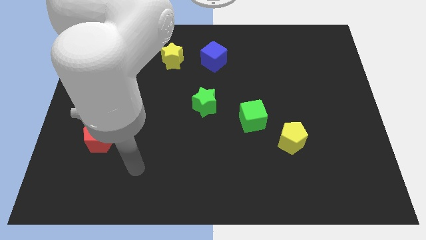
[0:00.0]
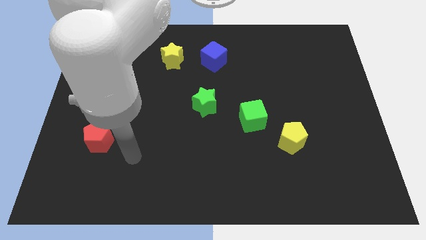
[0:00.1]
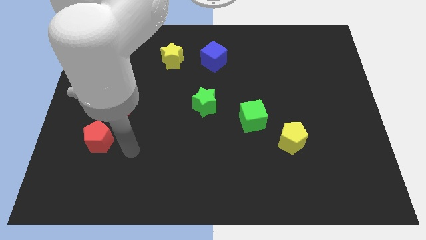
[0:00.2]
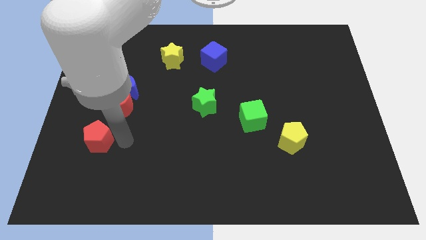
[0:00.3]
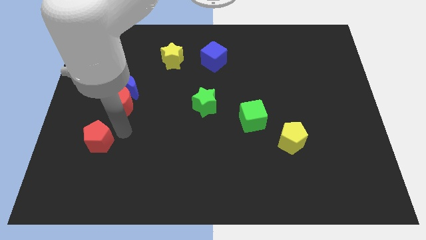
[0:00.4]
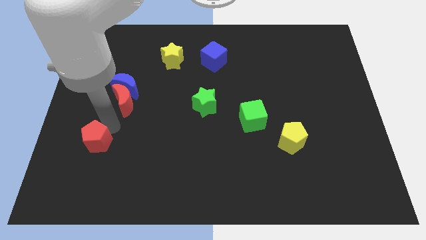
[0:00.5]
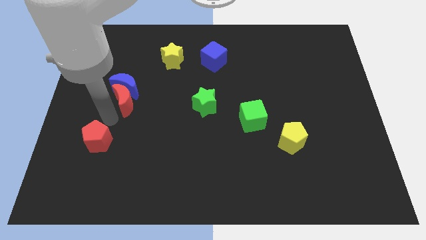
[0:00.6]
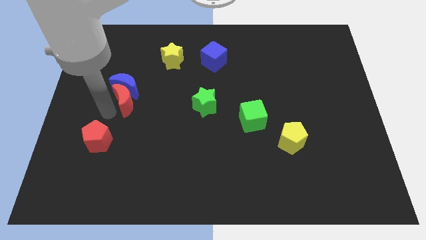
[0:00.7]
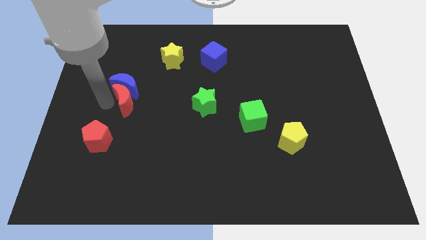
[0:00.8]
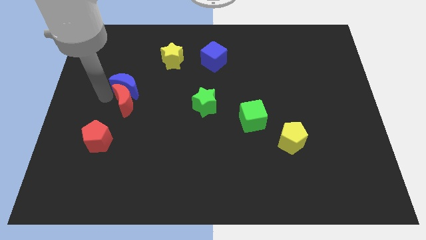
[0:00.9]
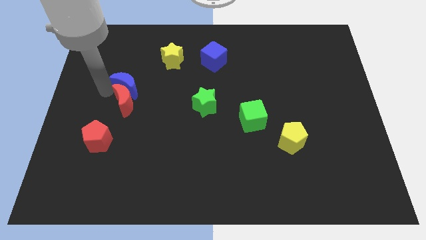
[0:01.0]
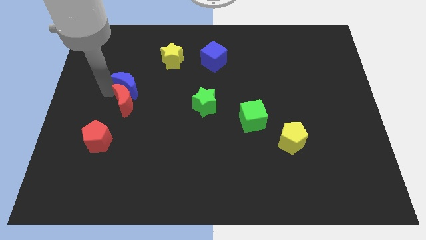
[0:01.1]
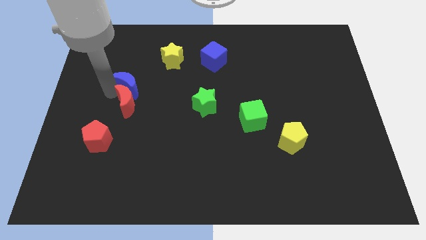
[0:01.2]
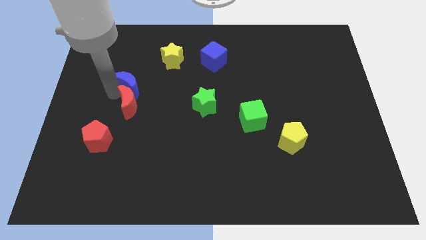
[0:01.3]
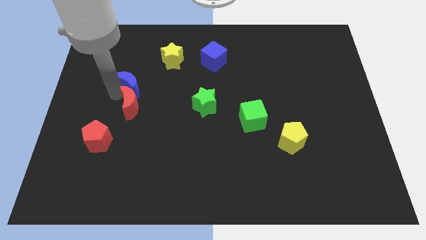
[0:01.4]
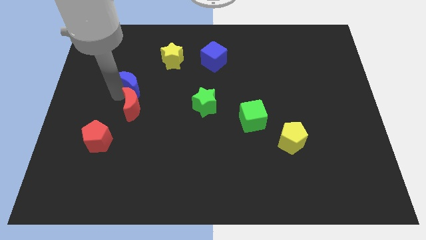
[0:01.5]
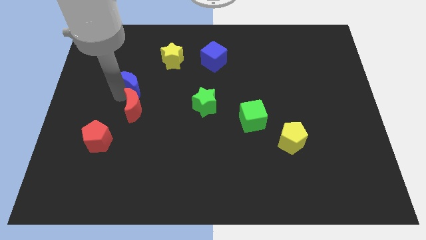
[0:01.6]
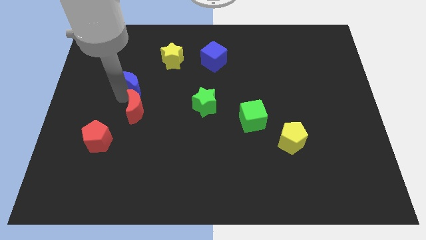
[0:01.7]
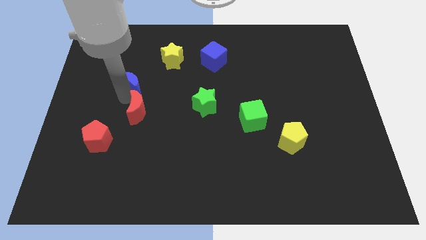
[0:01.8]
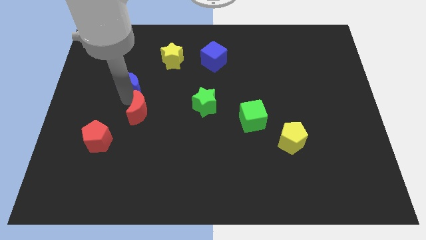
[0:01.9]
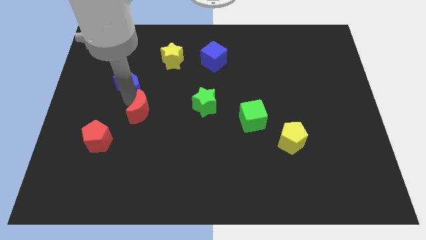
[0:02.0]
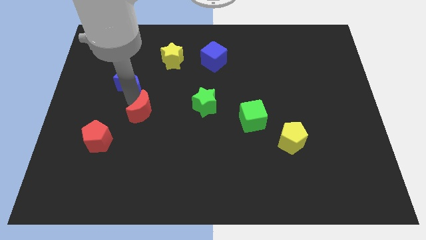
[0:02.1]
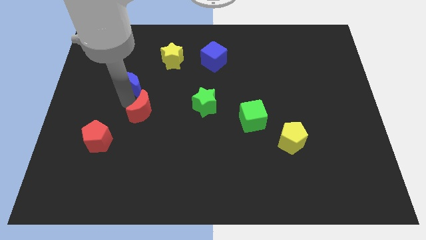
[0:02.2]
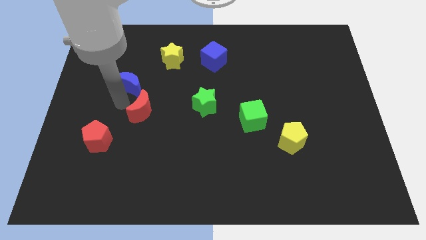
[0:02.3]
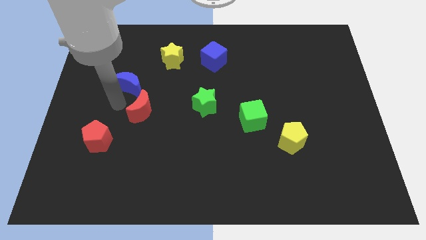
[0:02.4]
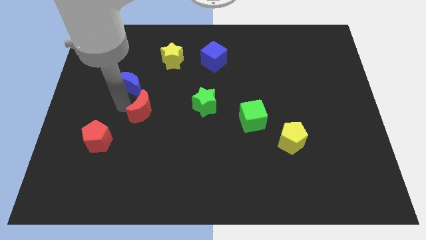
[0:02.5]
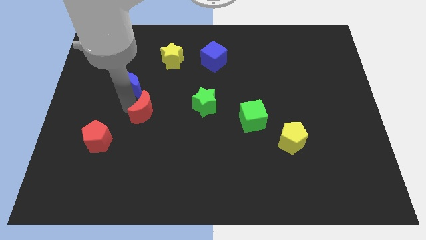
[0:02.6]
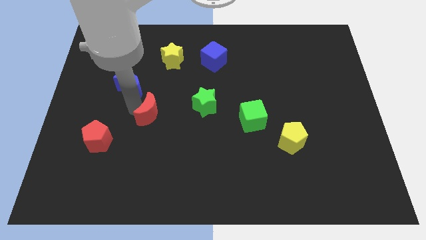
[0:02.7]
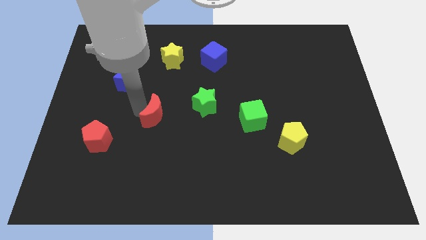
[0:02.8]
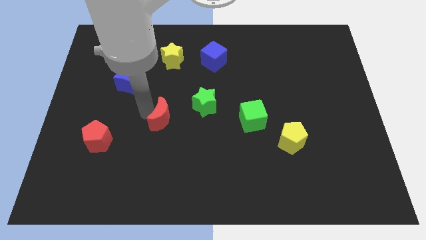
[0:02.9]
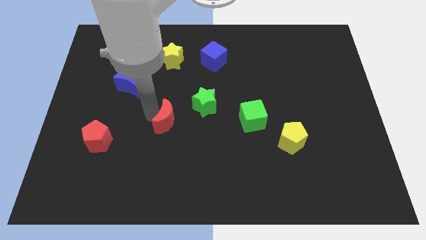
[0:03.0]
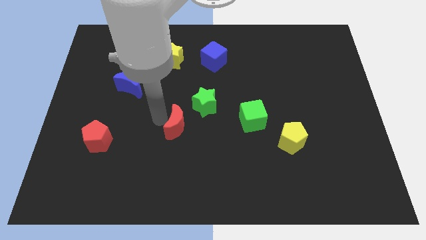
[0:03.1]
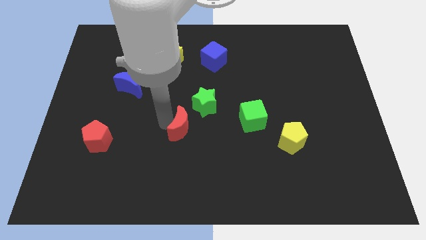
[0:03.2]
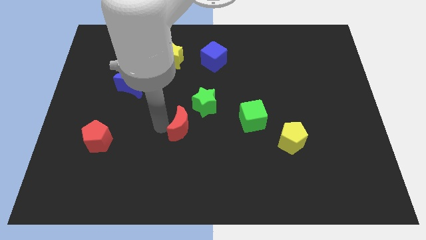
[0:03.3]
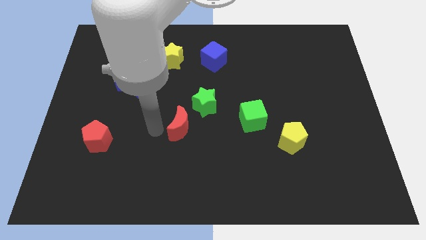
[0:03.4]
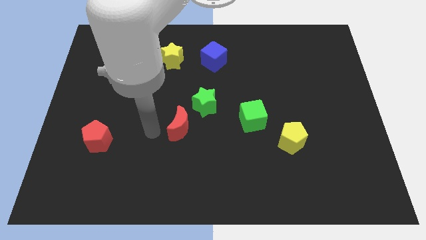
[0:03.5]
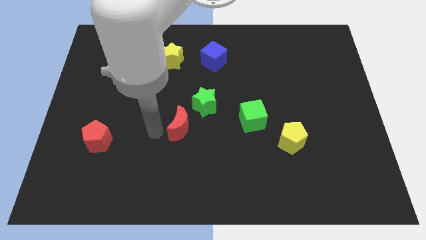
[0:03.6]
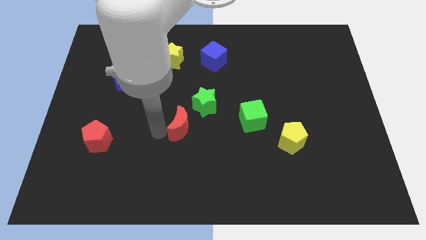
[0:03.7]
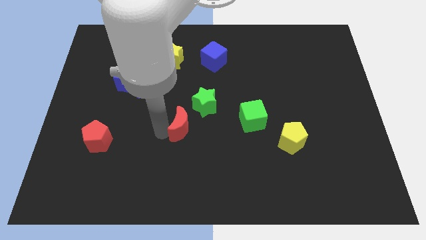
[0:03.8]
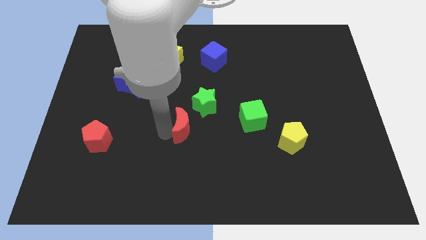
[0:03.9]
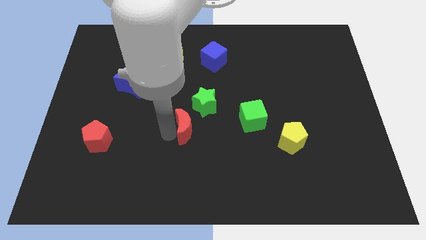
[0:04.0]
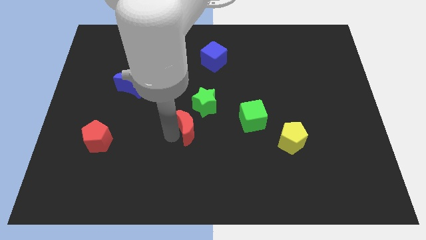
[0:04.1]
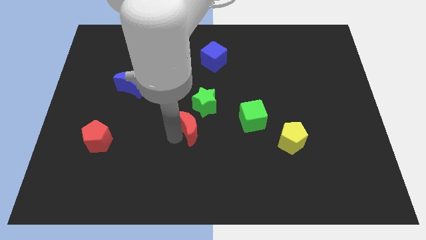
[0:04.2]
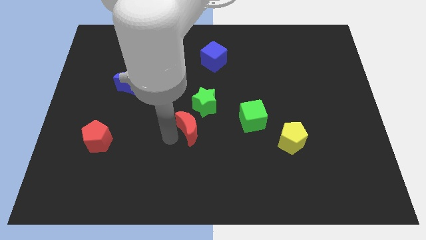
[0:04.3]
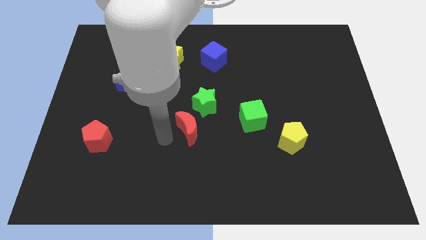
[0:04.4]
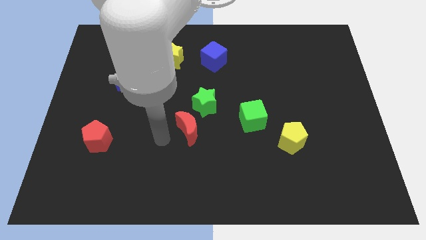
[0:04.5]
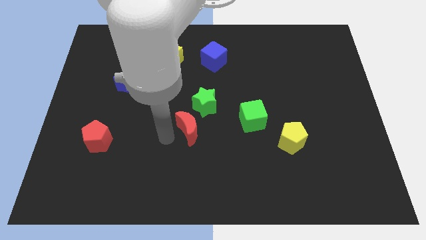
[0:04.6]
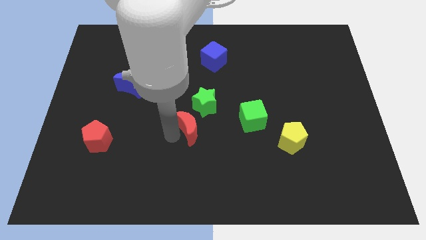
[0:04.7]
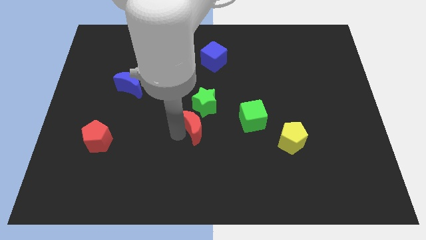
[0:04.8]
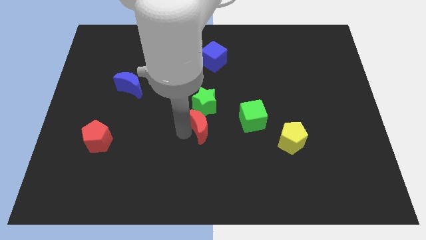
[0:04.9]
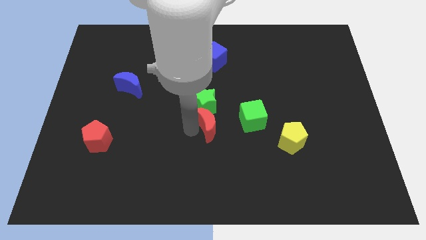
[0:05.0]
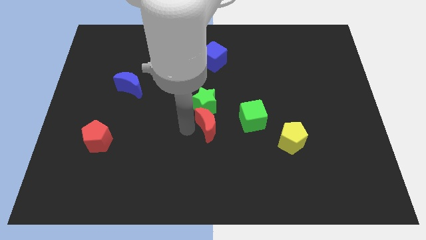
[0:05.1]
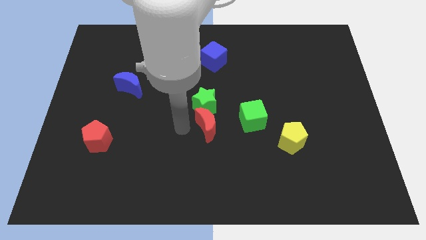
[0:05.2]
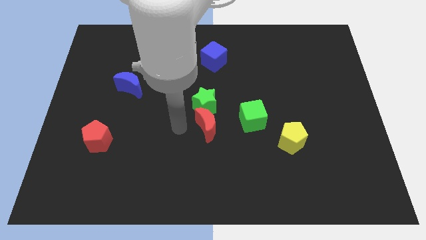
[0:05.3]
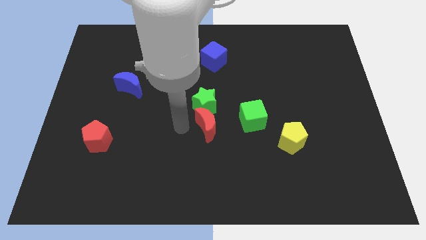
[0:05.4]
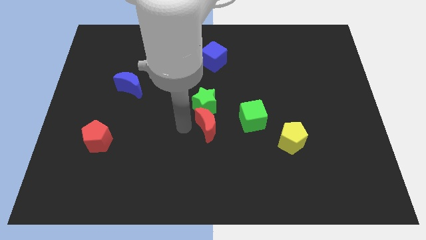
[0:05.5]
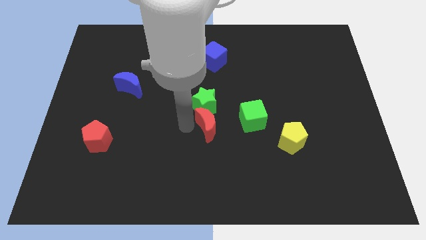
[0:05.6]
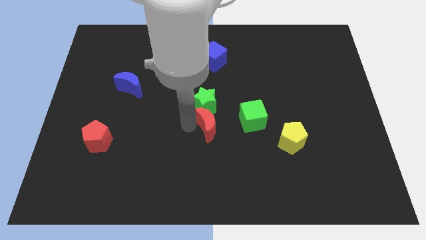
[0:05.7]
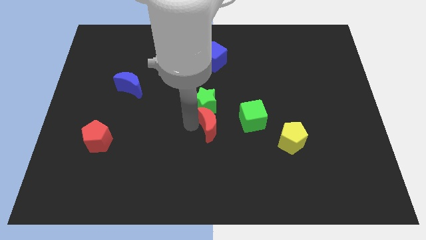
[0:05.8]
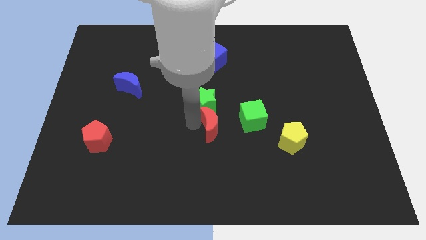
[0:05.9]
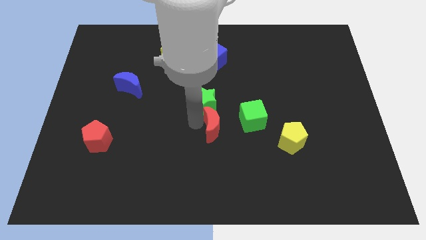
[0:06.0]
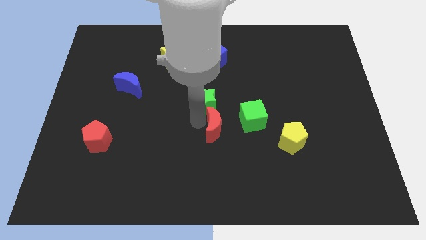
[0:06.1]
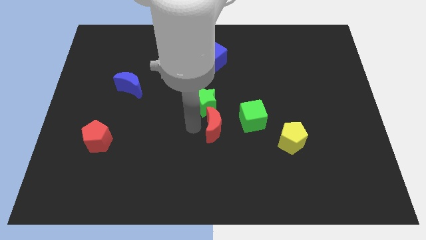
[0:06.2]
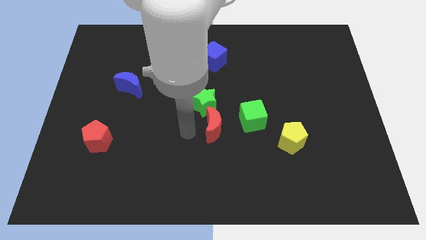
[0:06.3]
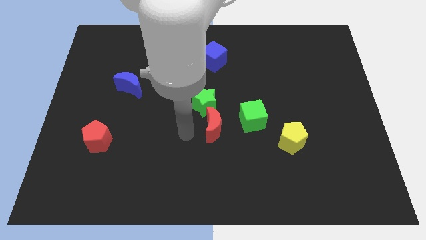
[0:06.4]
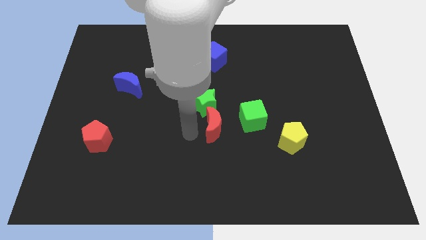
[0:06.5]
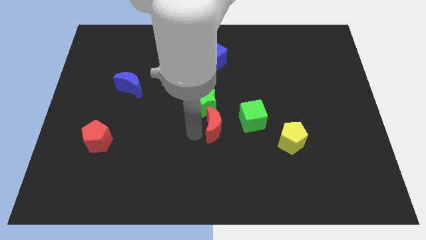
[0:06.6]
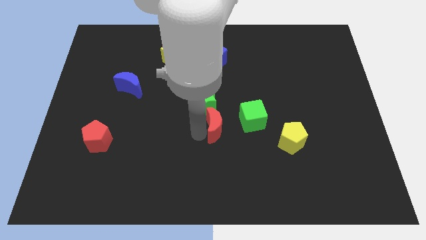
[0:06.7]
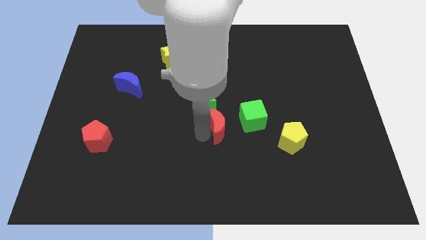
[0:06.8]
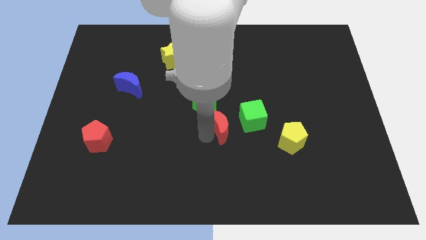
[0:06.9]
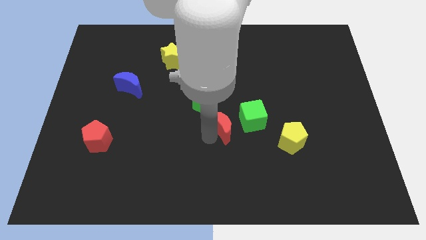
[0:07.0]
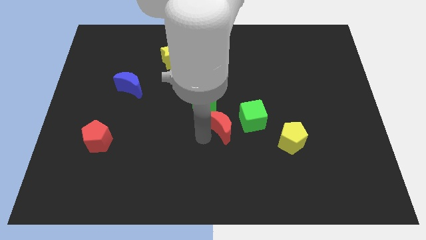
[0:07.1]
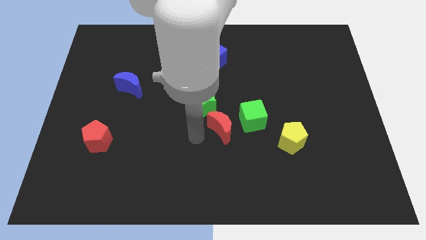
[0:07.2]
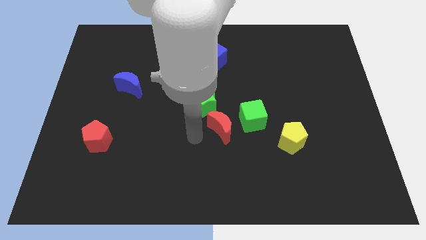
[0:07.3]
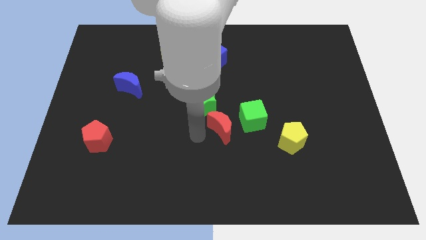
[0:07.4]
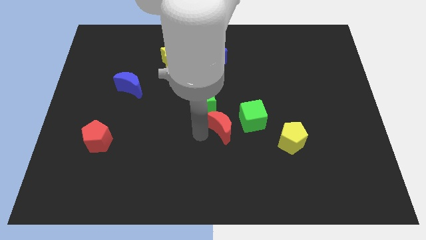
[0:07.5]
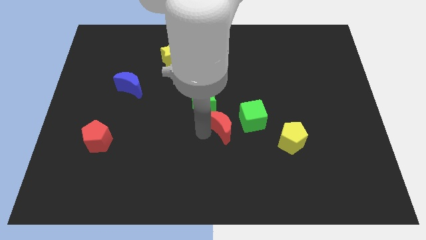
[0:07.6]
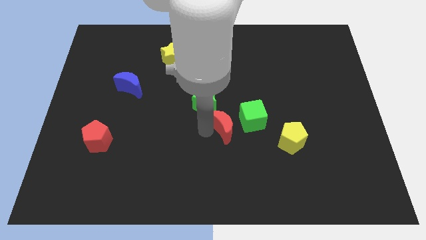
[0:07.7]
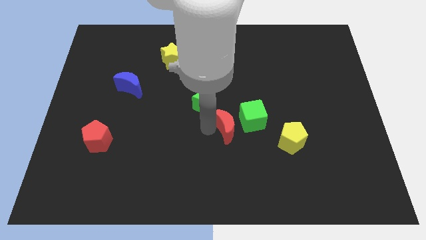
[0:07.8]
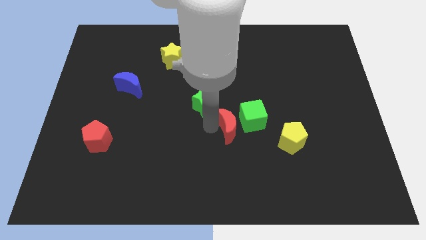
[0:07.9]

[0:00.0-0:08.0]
put the red moon towards the green cube
